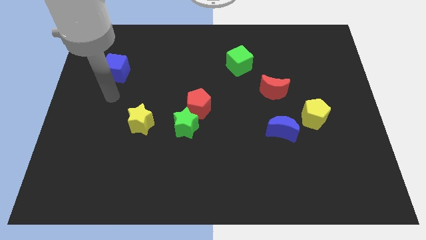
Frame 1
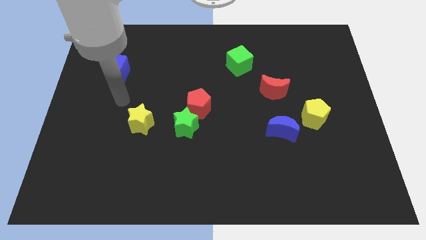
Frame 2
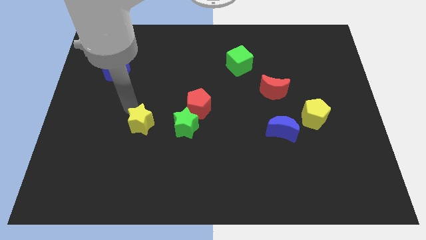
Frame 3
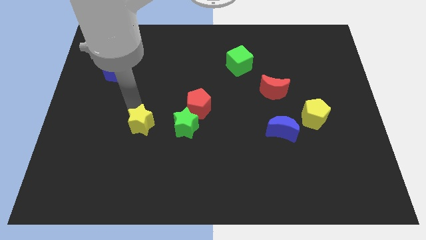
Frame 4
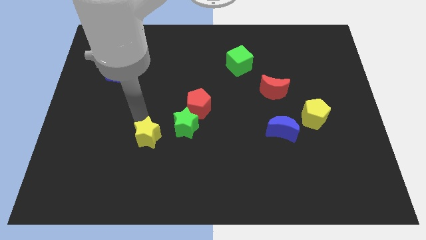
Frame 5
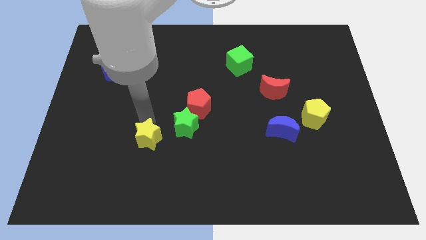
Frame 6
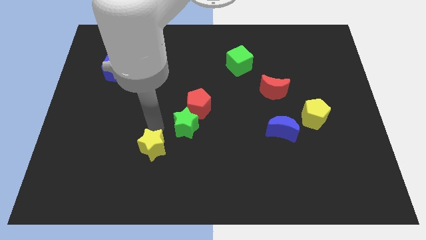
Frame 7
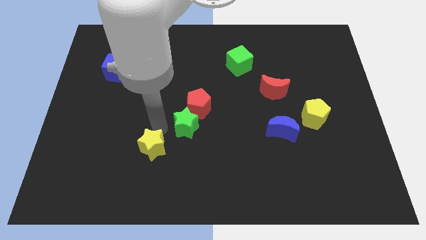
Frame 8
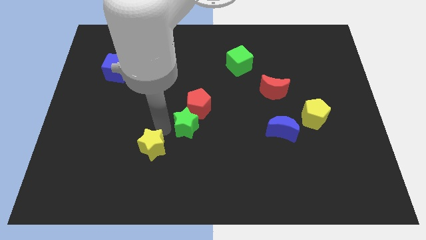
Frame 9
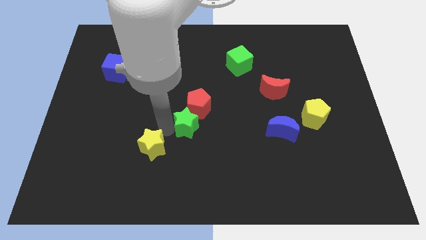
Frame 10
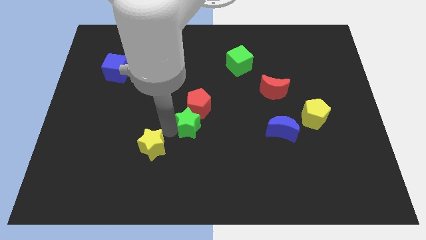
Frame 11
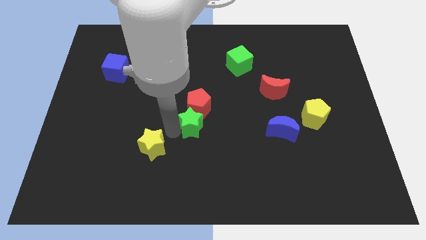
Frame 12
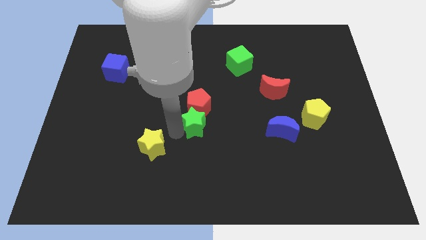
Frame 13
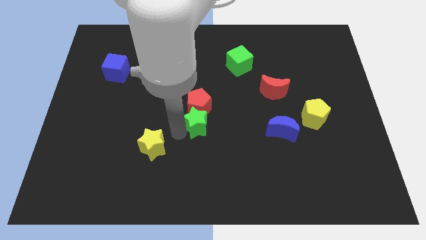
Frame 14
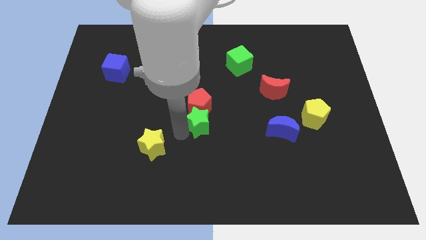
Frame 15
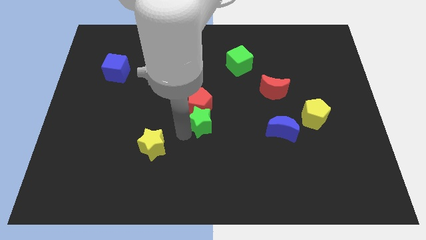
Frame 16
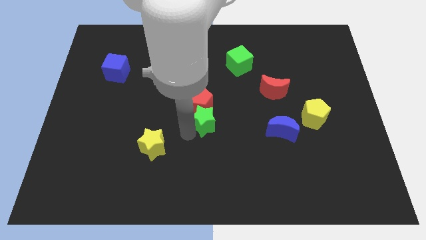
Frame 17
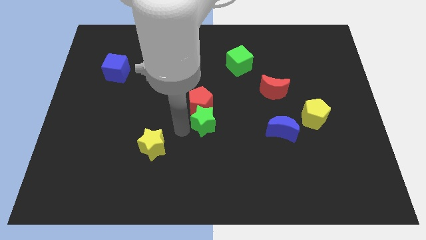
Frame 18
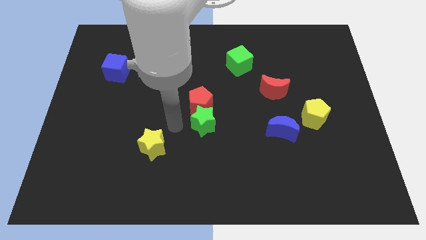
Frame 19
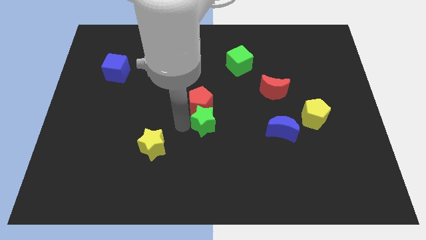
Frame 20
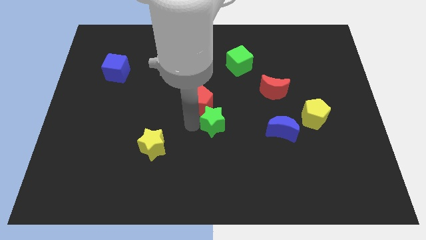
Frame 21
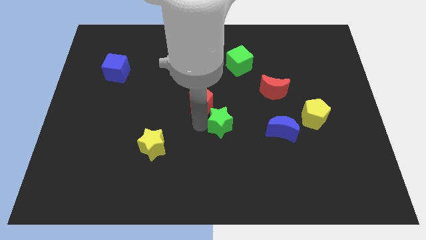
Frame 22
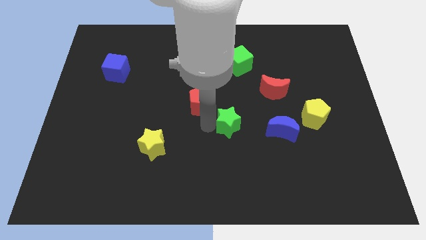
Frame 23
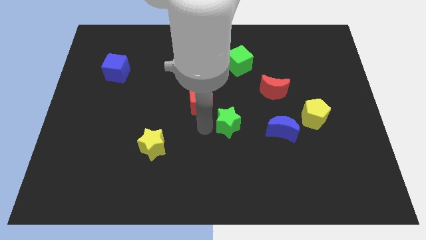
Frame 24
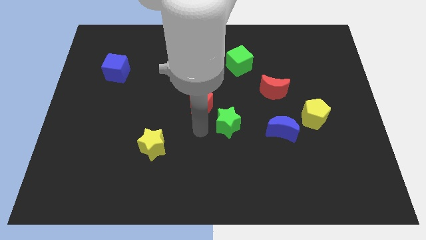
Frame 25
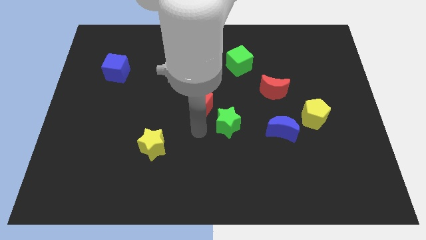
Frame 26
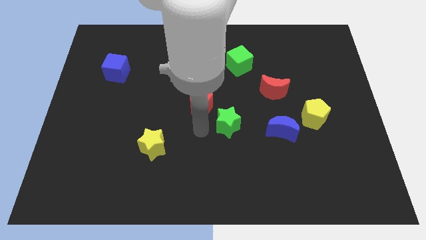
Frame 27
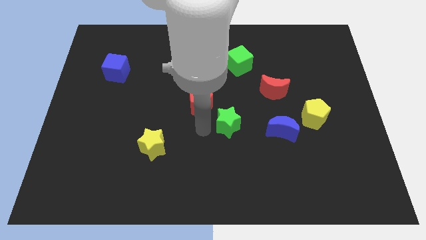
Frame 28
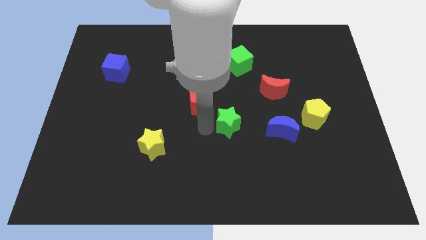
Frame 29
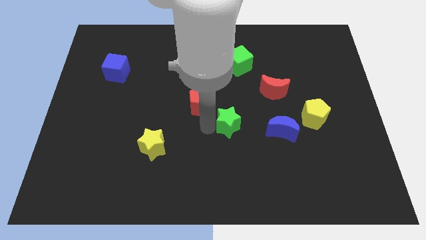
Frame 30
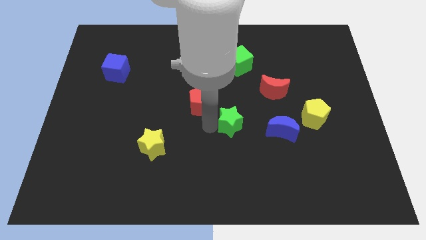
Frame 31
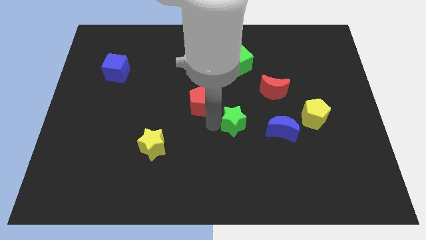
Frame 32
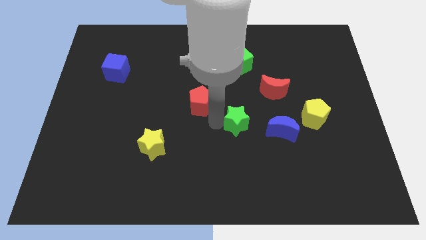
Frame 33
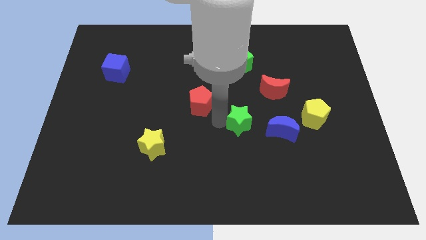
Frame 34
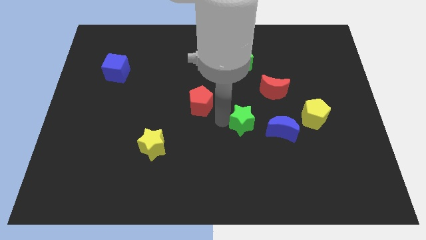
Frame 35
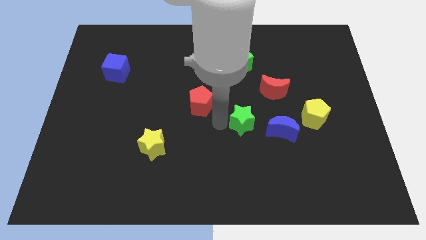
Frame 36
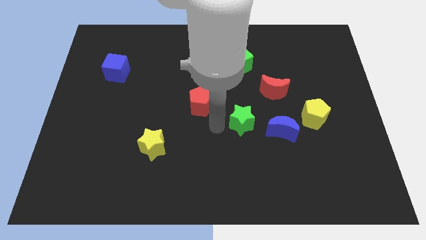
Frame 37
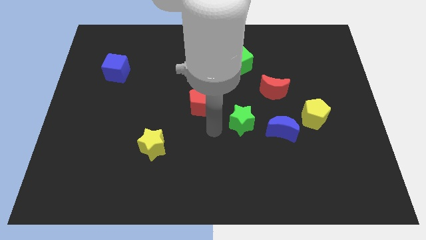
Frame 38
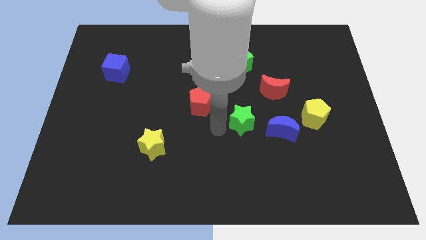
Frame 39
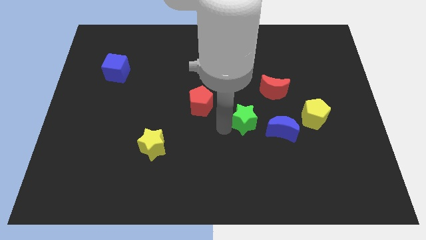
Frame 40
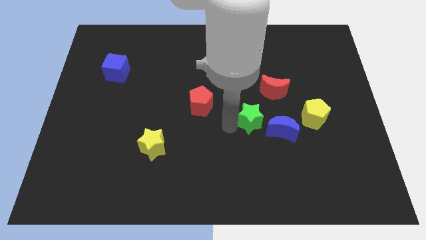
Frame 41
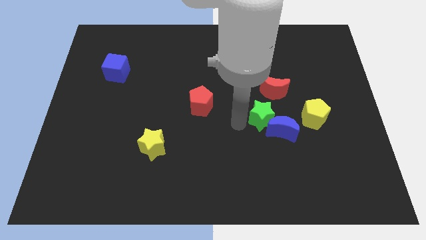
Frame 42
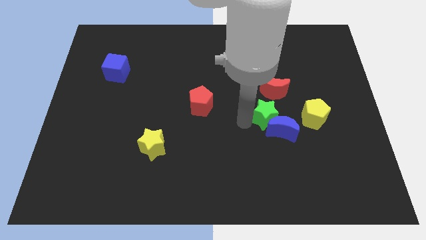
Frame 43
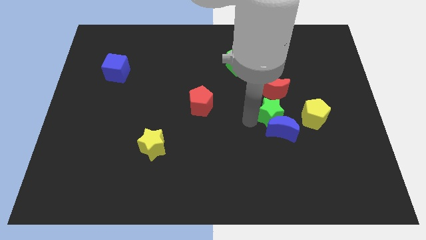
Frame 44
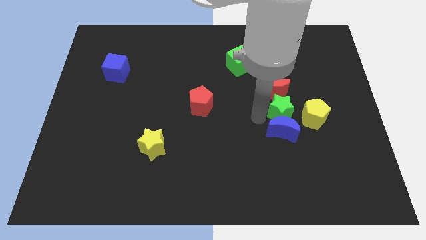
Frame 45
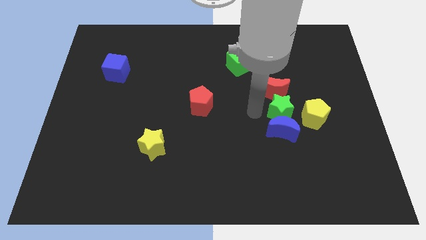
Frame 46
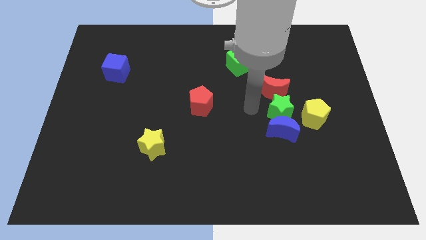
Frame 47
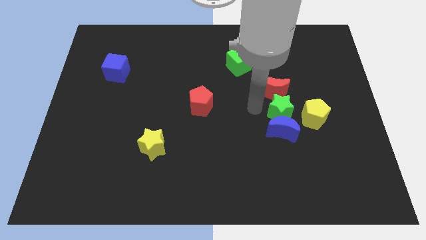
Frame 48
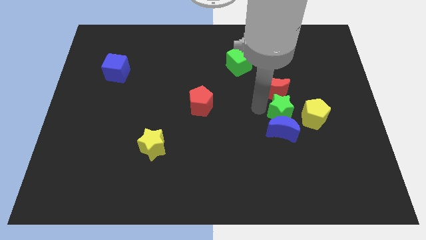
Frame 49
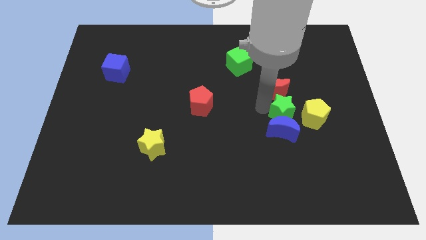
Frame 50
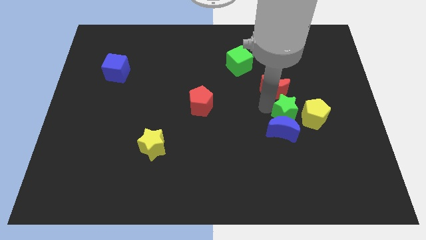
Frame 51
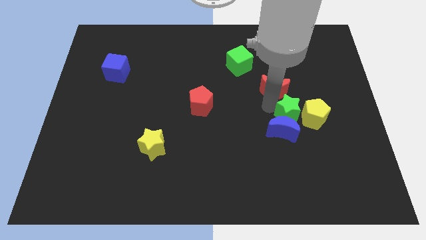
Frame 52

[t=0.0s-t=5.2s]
push the green star next to the yellow pentagon

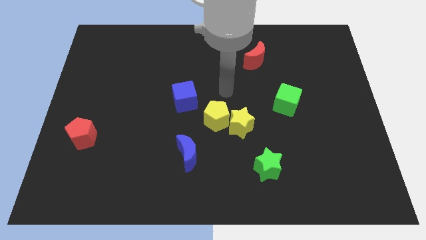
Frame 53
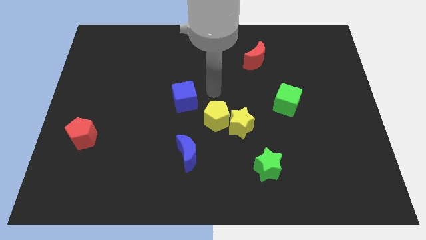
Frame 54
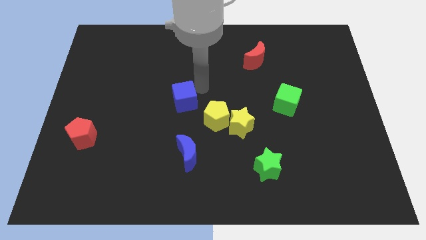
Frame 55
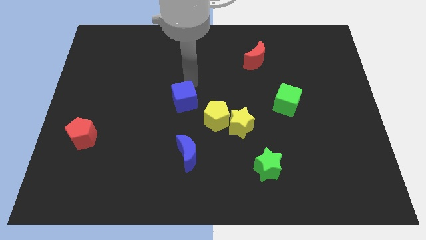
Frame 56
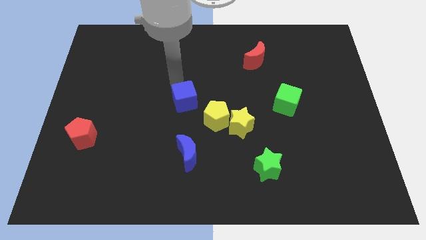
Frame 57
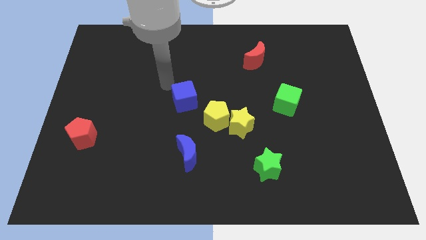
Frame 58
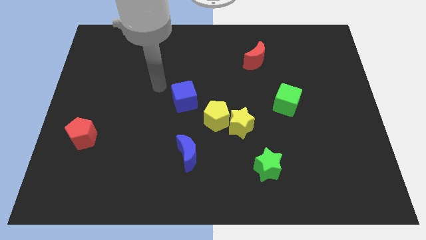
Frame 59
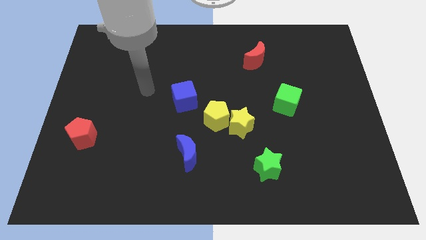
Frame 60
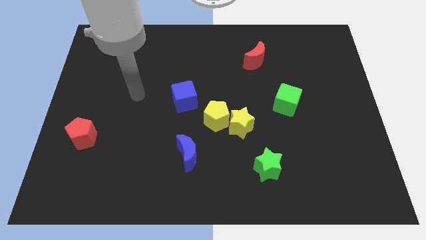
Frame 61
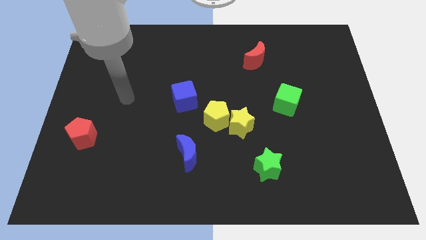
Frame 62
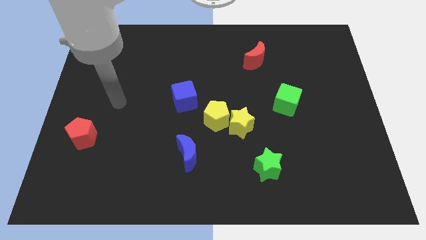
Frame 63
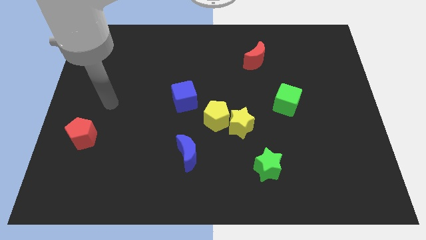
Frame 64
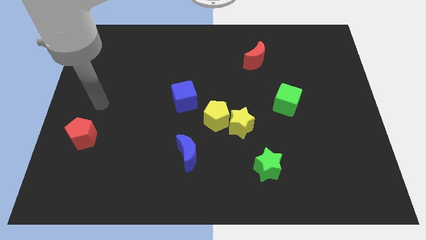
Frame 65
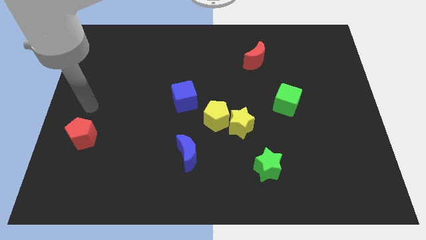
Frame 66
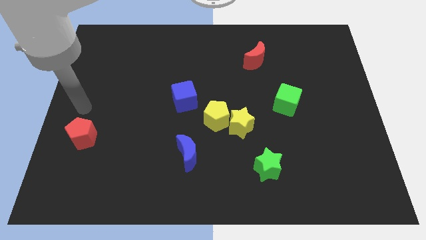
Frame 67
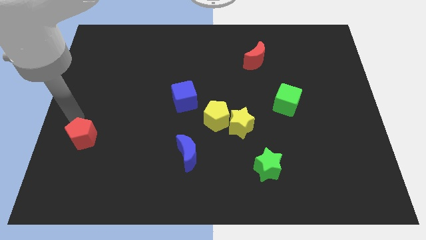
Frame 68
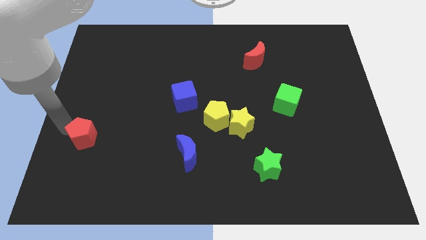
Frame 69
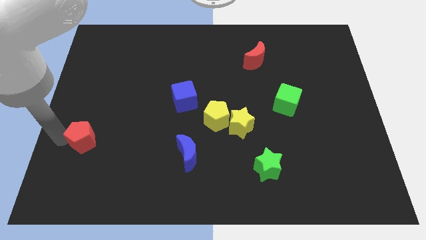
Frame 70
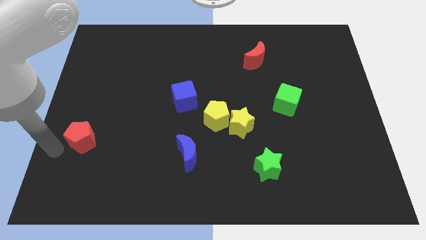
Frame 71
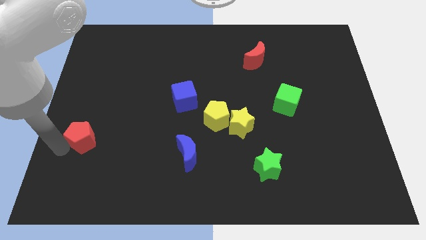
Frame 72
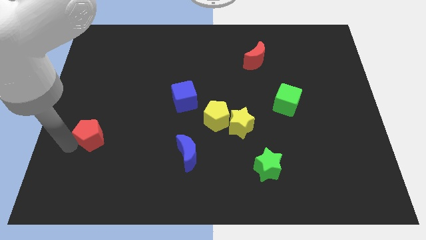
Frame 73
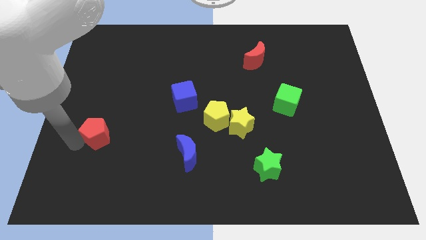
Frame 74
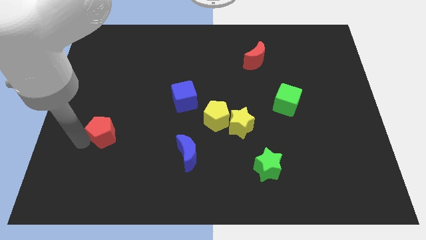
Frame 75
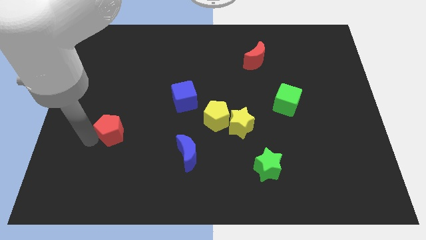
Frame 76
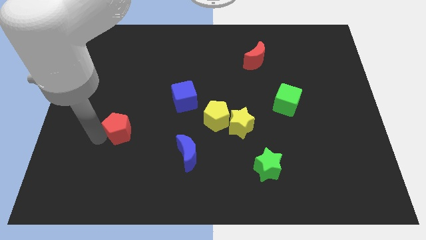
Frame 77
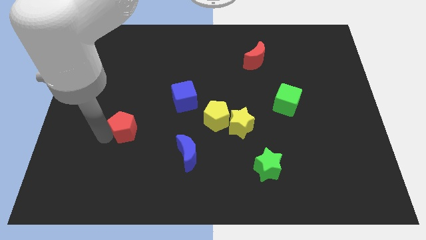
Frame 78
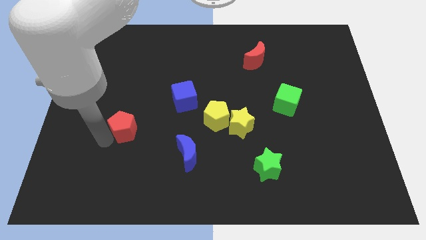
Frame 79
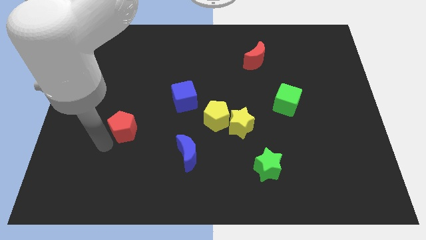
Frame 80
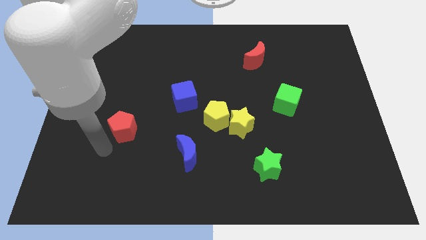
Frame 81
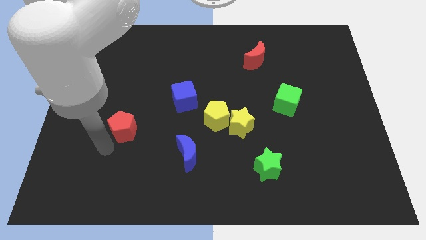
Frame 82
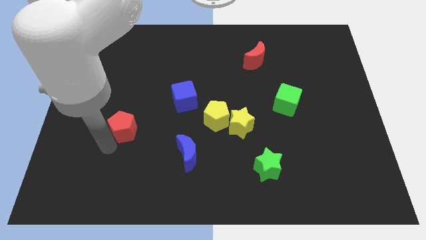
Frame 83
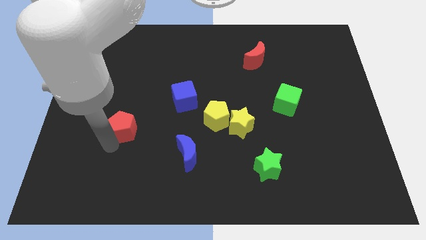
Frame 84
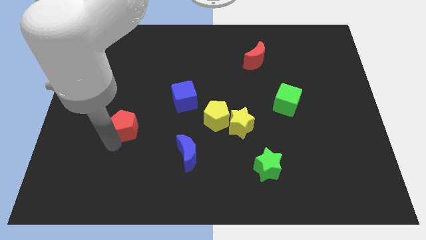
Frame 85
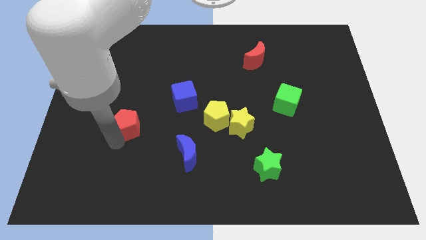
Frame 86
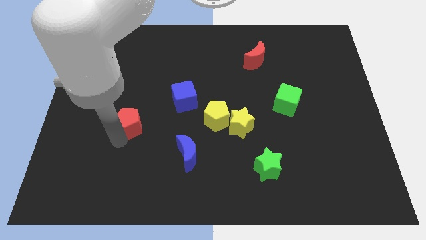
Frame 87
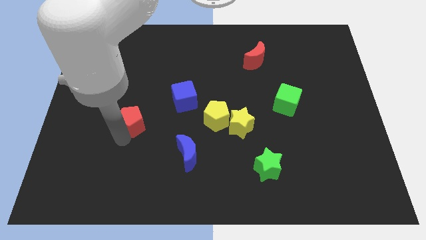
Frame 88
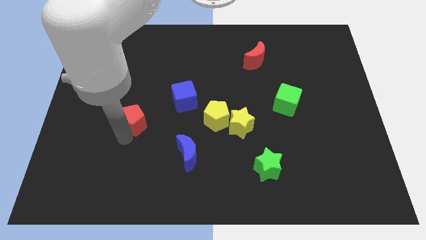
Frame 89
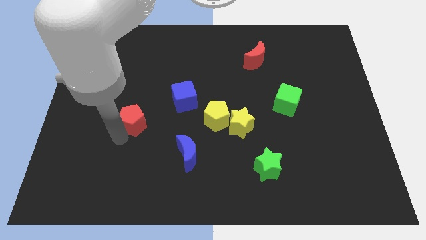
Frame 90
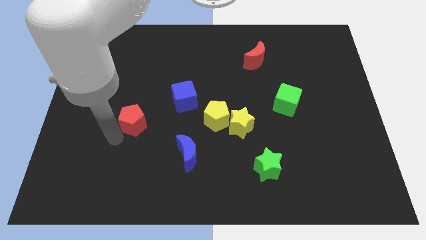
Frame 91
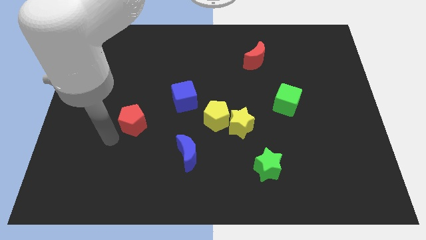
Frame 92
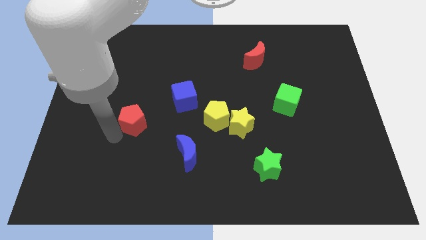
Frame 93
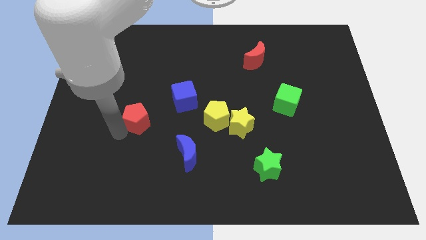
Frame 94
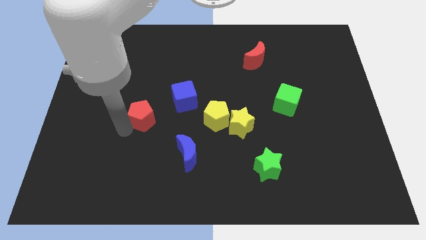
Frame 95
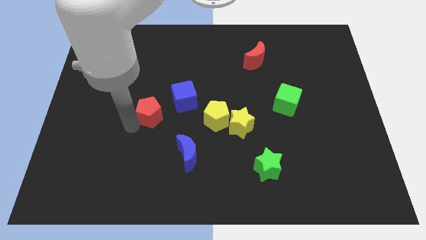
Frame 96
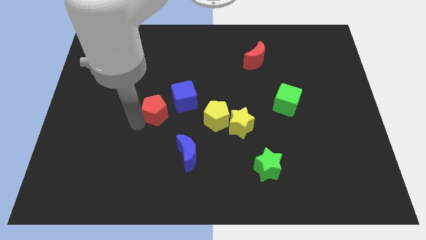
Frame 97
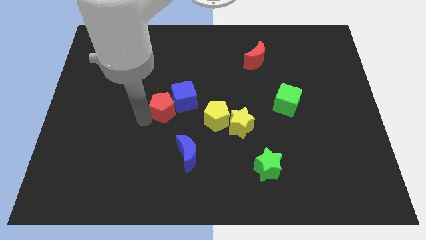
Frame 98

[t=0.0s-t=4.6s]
put the red pentagon close to the blue cube
